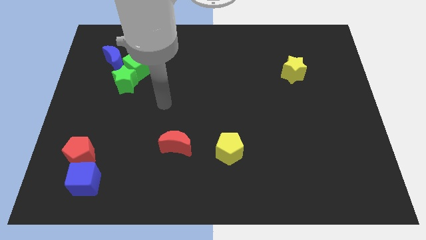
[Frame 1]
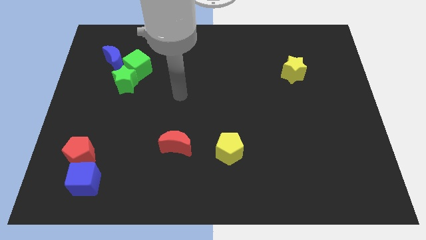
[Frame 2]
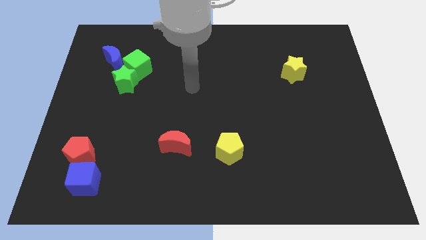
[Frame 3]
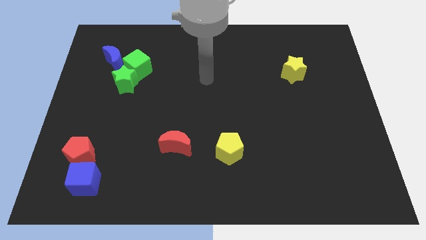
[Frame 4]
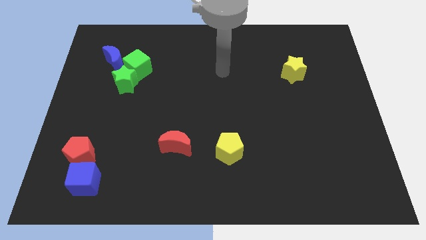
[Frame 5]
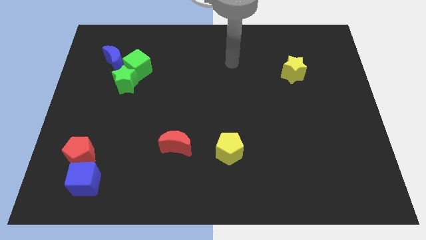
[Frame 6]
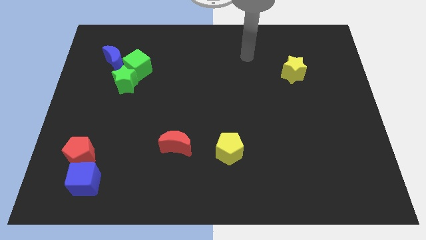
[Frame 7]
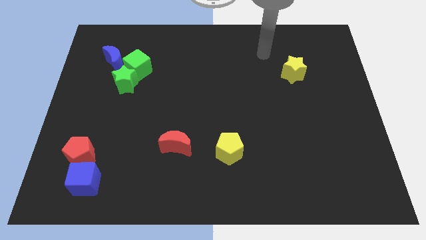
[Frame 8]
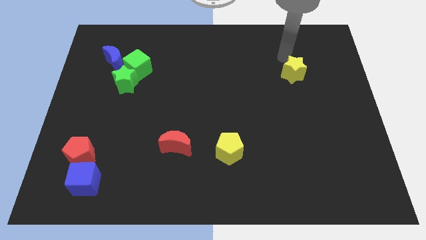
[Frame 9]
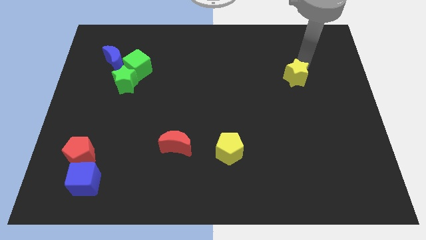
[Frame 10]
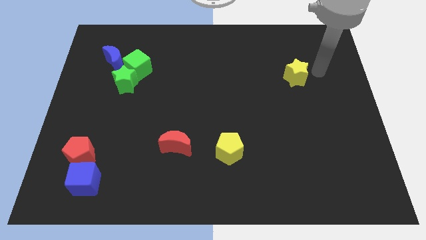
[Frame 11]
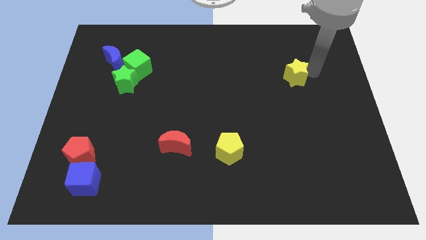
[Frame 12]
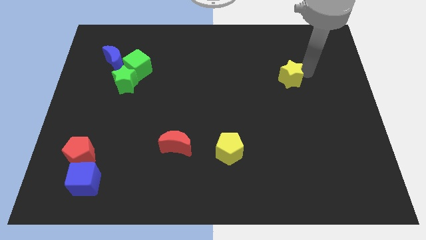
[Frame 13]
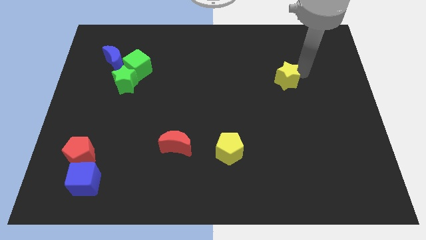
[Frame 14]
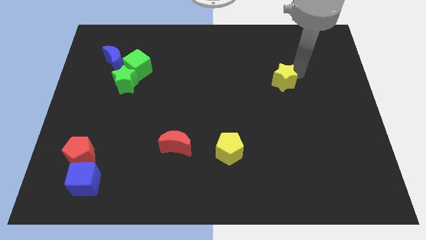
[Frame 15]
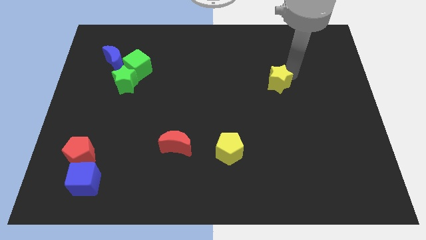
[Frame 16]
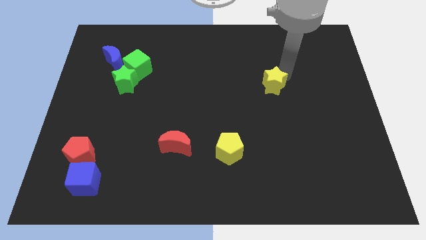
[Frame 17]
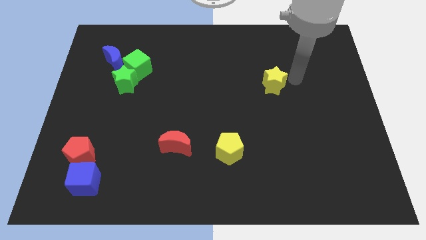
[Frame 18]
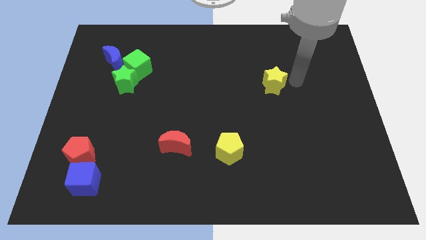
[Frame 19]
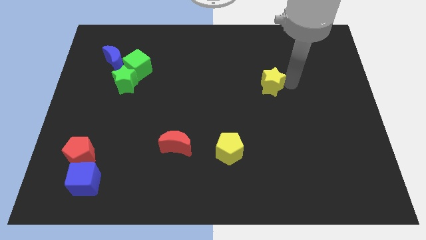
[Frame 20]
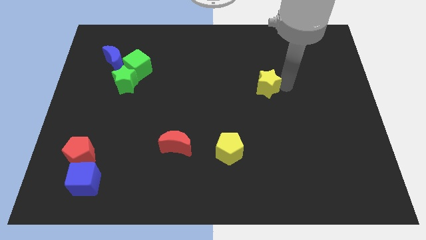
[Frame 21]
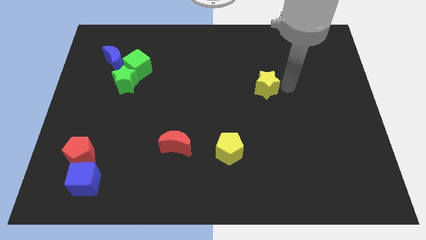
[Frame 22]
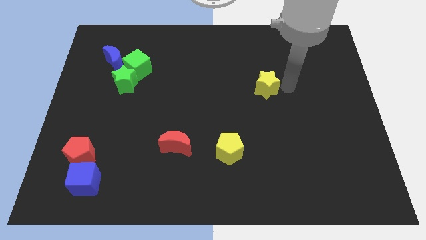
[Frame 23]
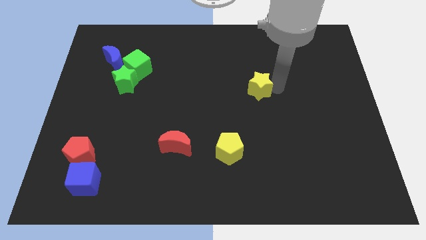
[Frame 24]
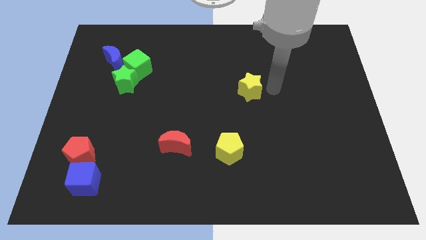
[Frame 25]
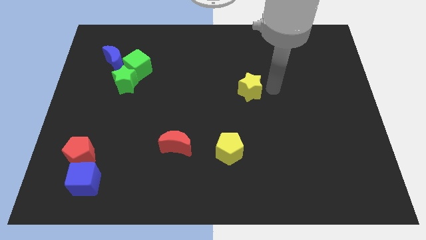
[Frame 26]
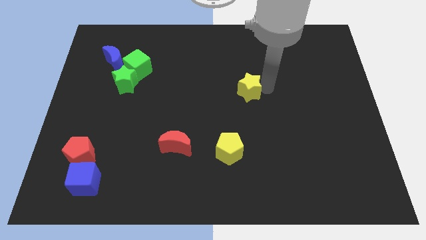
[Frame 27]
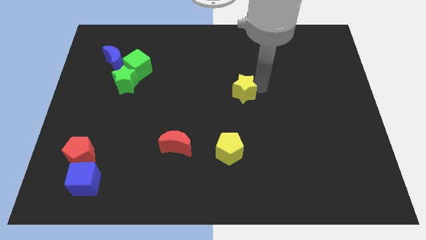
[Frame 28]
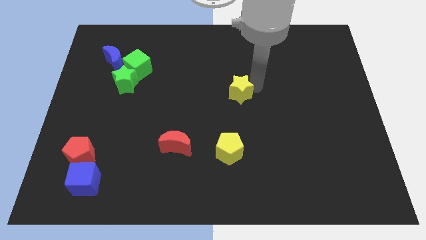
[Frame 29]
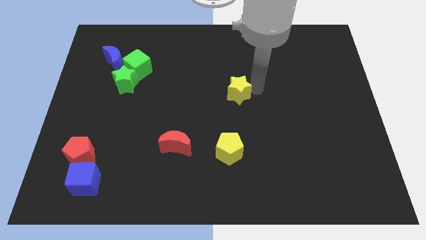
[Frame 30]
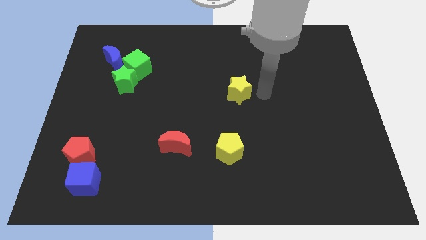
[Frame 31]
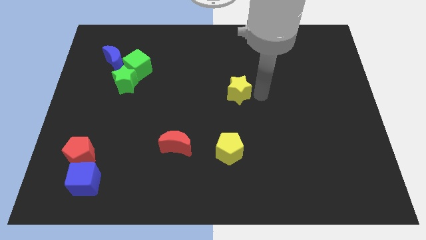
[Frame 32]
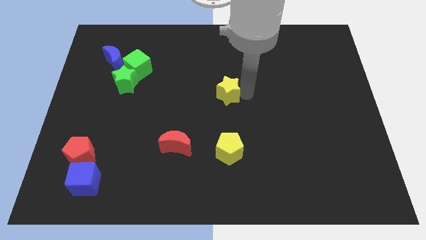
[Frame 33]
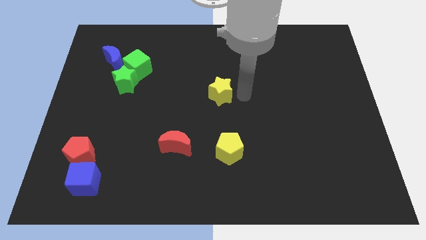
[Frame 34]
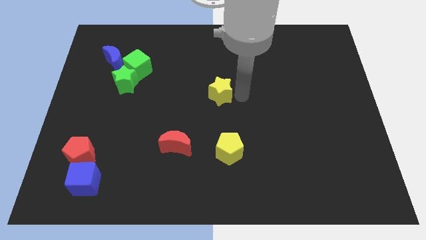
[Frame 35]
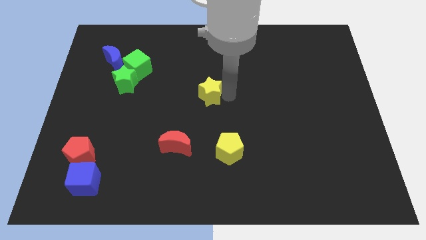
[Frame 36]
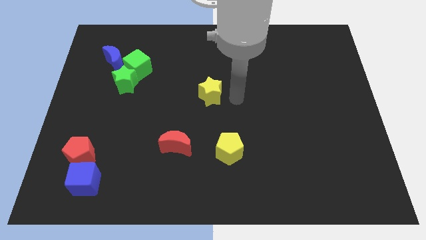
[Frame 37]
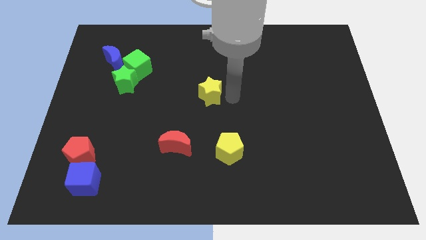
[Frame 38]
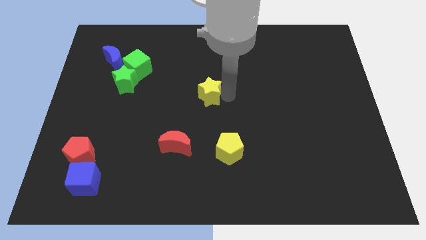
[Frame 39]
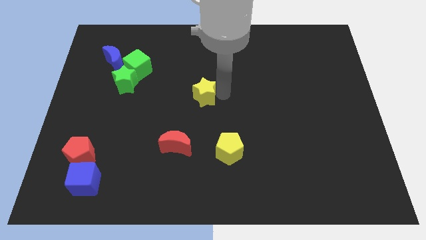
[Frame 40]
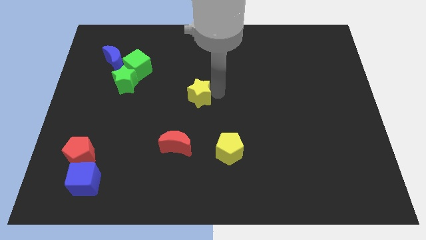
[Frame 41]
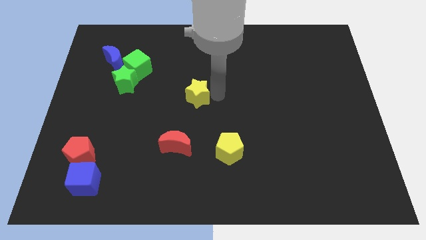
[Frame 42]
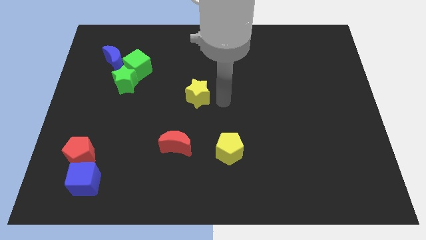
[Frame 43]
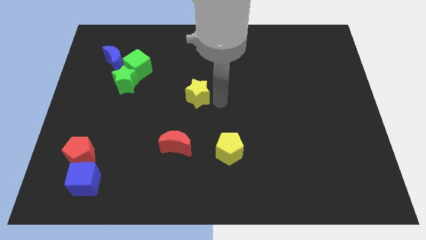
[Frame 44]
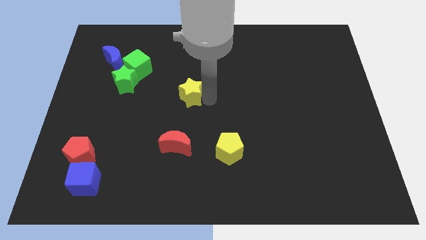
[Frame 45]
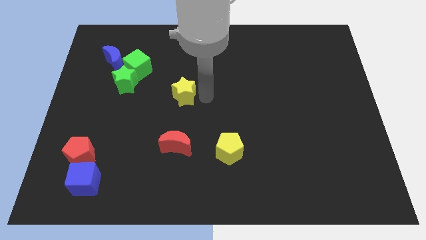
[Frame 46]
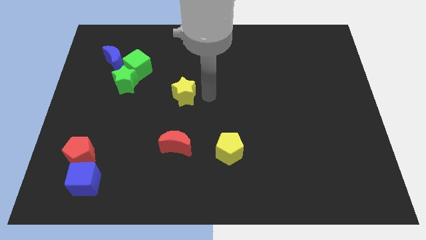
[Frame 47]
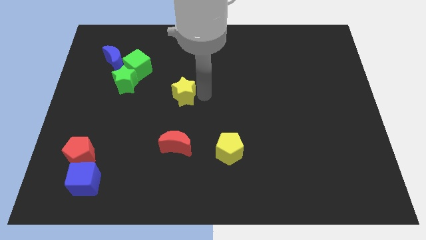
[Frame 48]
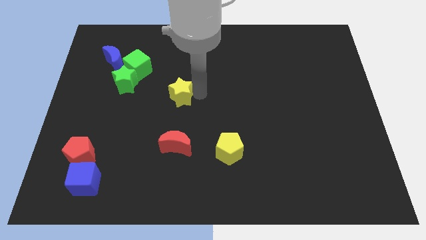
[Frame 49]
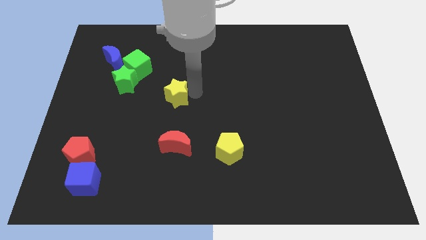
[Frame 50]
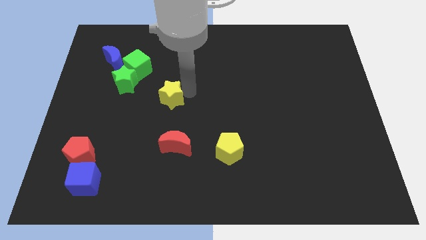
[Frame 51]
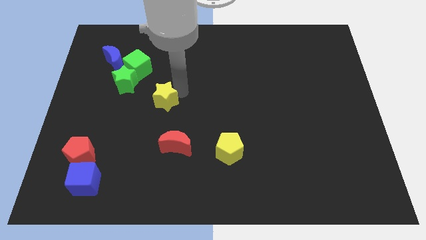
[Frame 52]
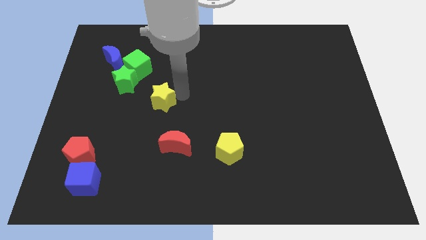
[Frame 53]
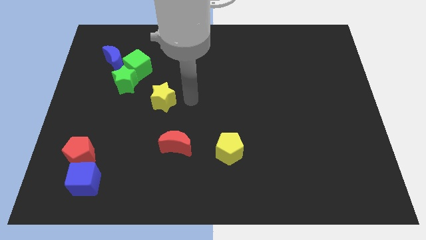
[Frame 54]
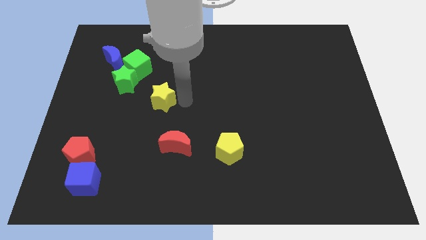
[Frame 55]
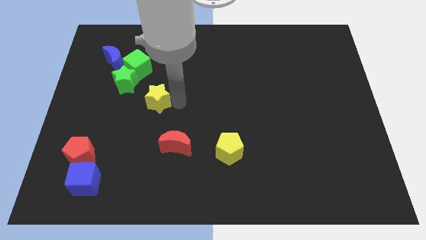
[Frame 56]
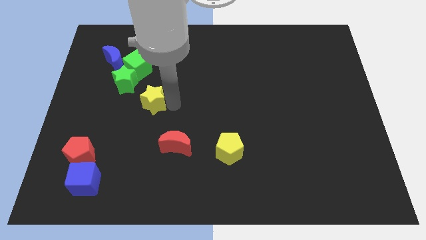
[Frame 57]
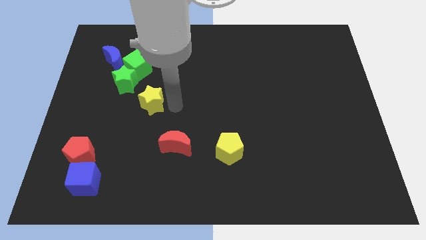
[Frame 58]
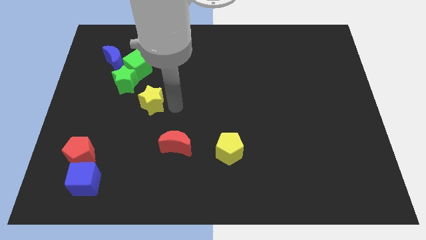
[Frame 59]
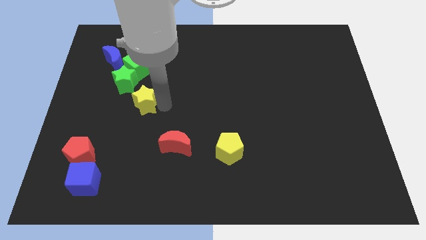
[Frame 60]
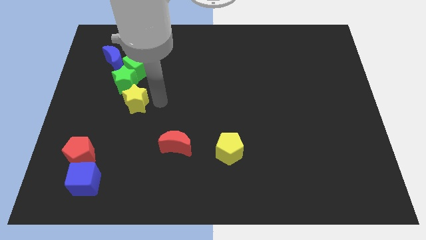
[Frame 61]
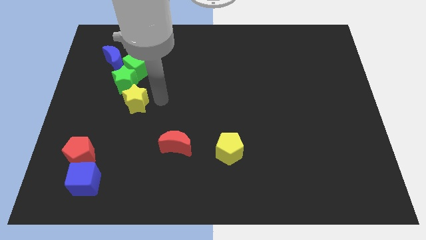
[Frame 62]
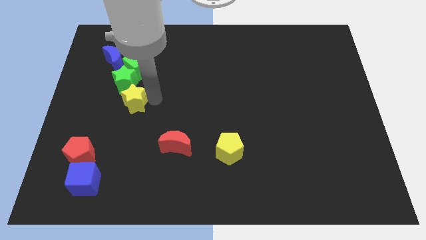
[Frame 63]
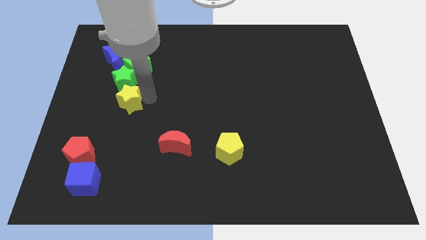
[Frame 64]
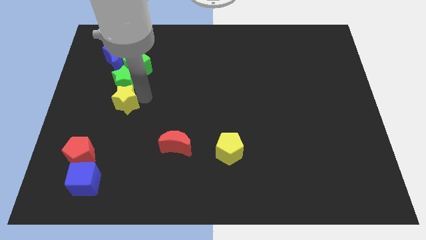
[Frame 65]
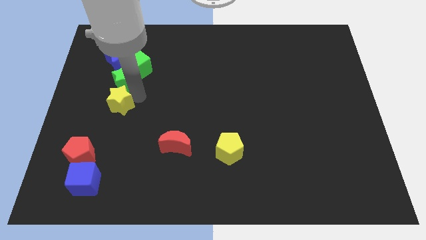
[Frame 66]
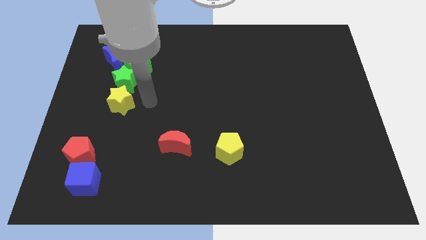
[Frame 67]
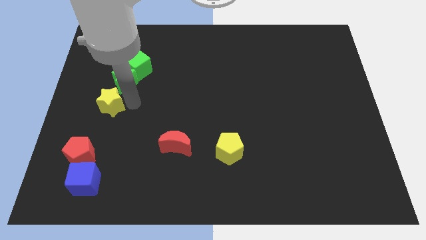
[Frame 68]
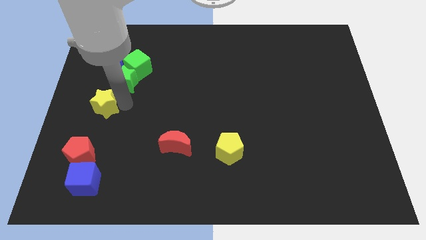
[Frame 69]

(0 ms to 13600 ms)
put the yellow star to the center left

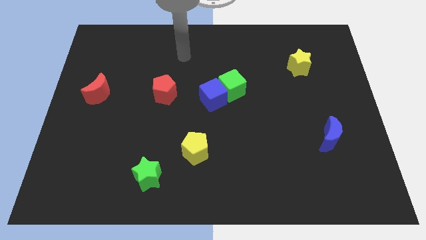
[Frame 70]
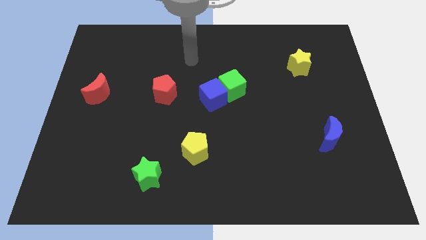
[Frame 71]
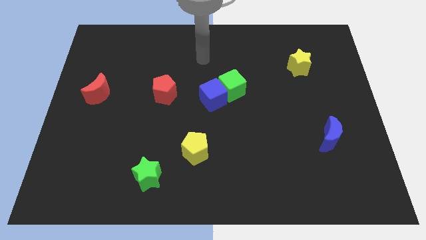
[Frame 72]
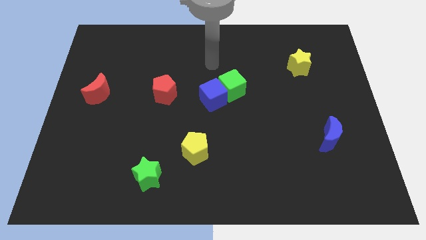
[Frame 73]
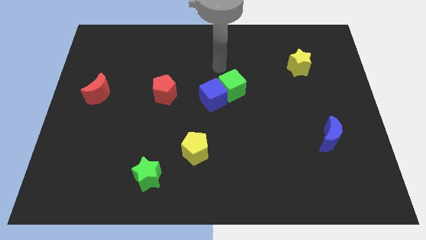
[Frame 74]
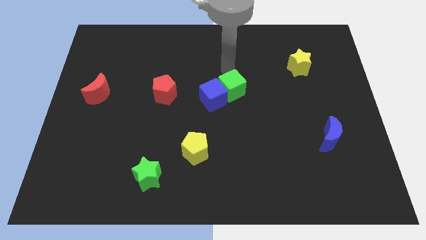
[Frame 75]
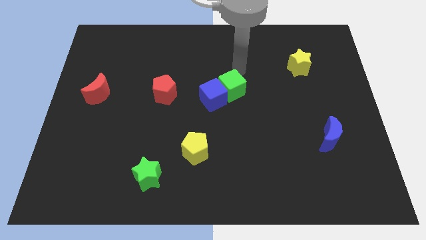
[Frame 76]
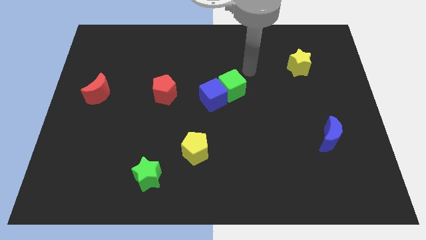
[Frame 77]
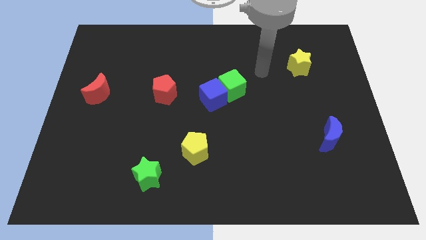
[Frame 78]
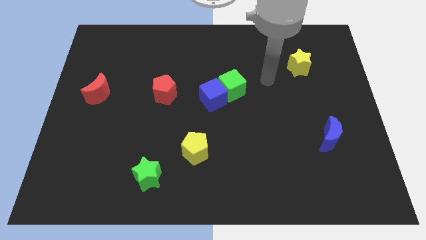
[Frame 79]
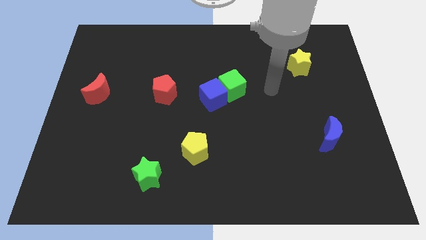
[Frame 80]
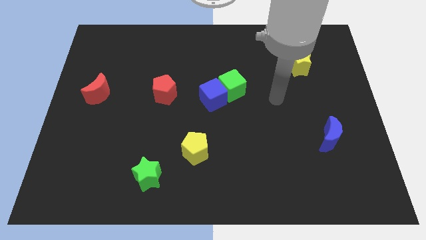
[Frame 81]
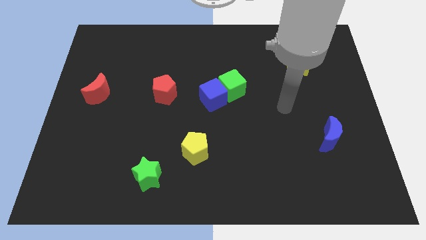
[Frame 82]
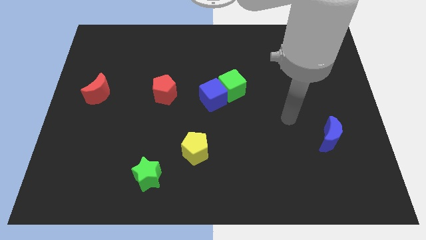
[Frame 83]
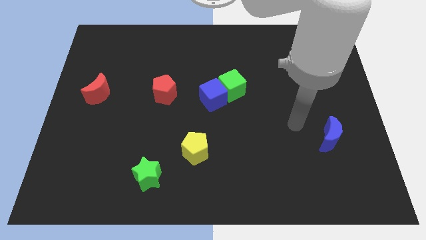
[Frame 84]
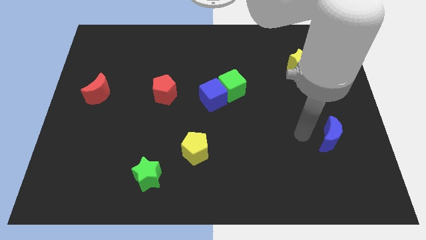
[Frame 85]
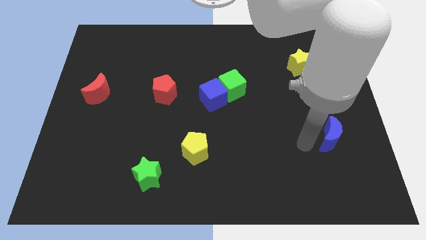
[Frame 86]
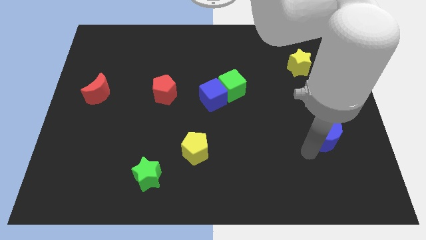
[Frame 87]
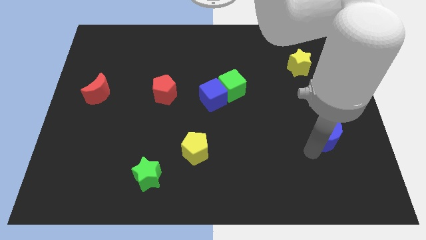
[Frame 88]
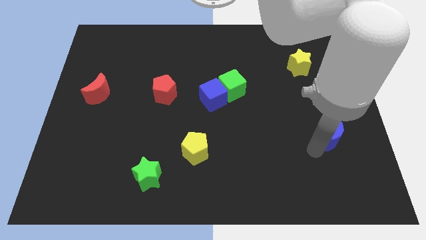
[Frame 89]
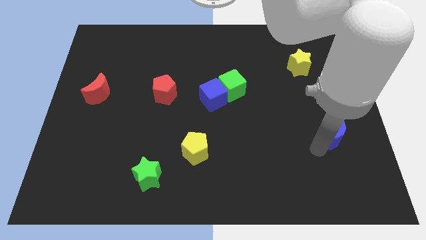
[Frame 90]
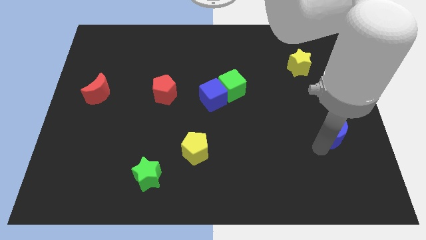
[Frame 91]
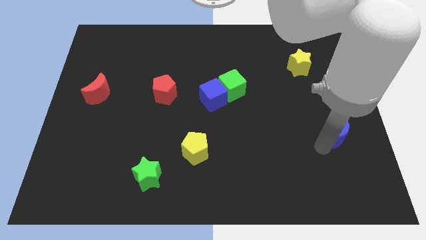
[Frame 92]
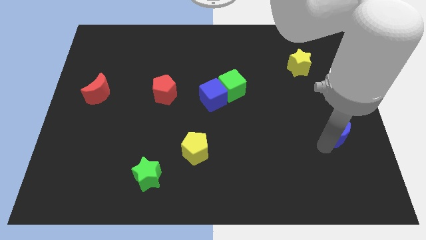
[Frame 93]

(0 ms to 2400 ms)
move the blue moon to the center right
